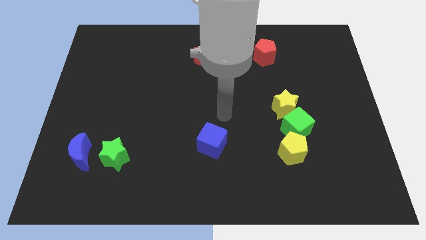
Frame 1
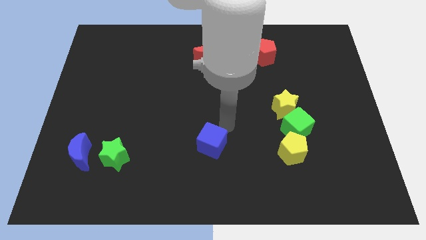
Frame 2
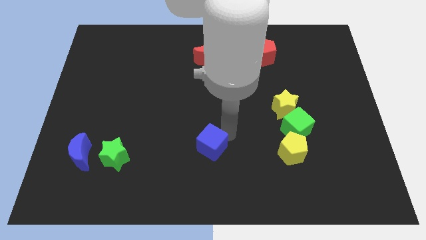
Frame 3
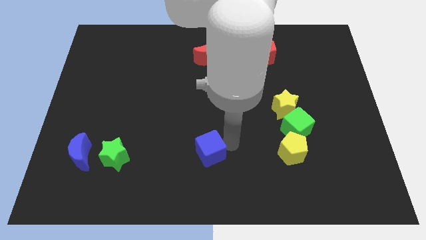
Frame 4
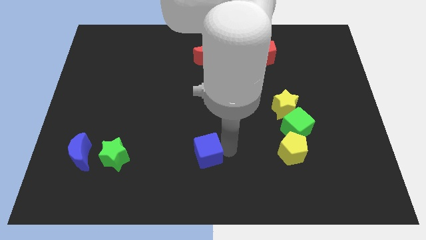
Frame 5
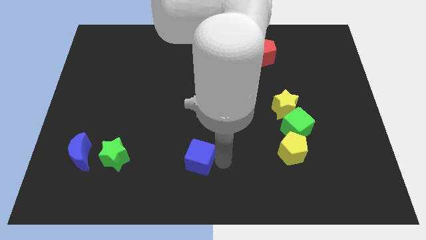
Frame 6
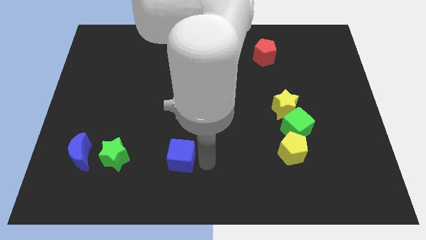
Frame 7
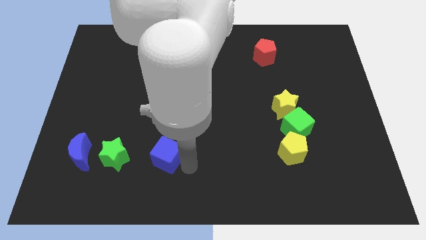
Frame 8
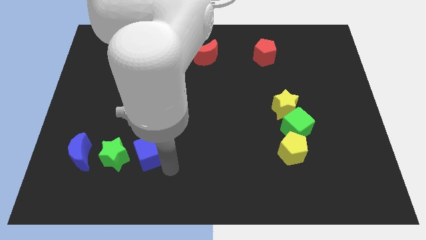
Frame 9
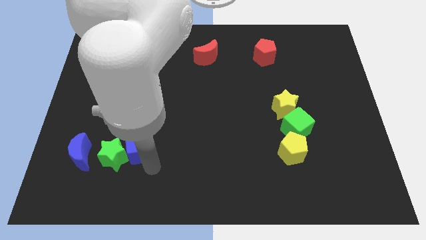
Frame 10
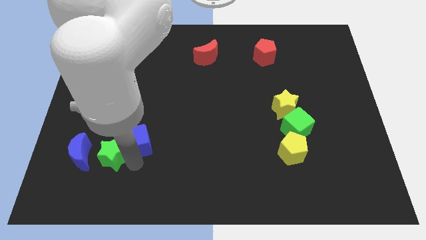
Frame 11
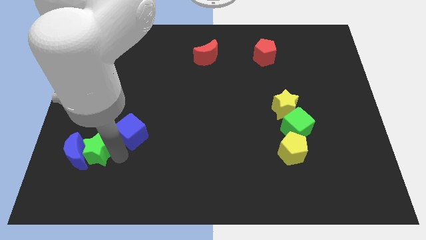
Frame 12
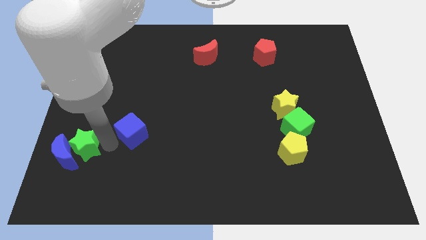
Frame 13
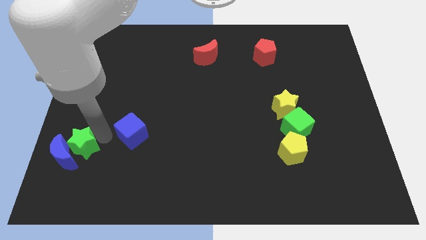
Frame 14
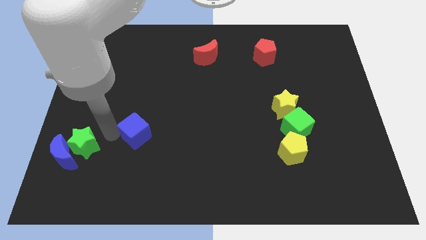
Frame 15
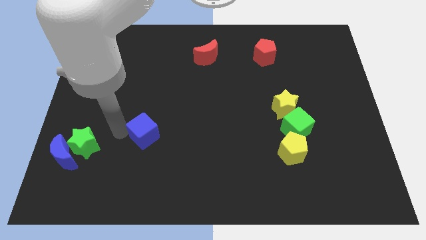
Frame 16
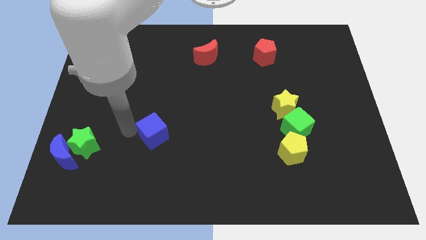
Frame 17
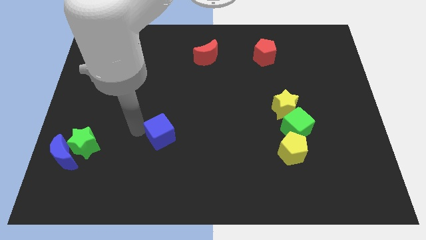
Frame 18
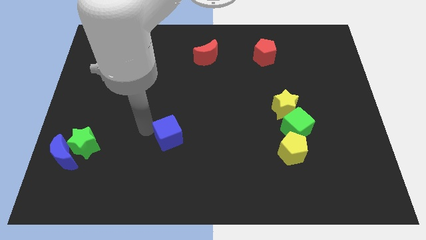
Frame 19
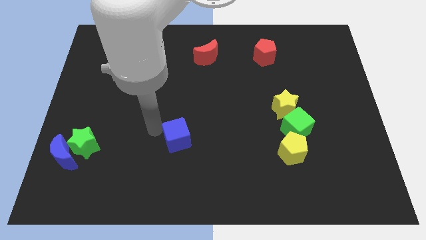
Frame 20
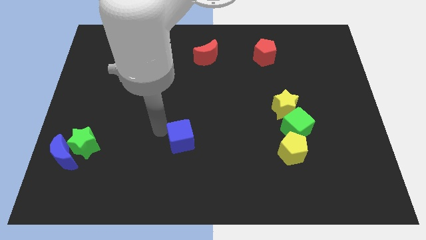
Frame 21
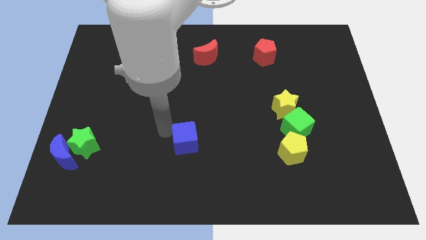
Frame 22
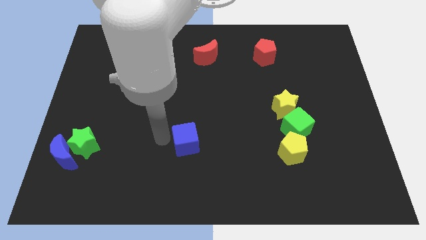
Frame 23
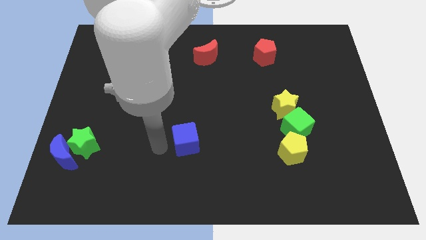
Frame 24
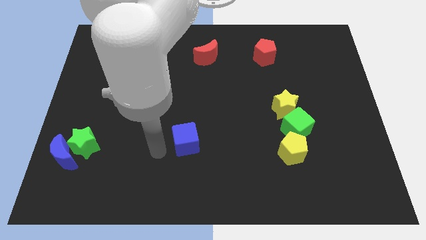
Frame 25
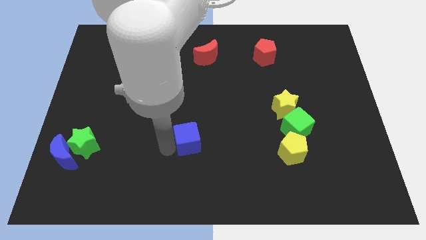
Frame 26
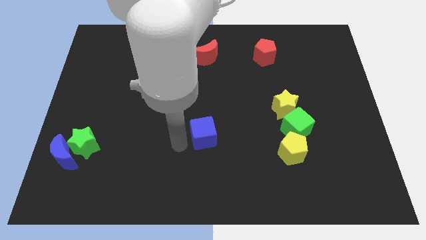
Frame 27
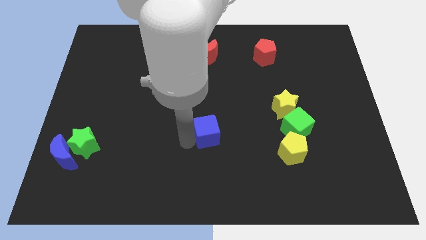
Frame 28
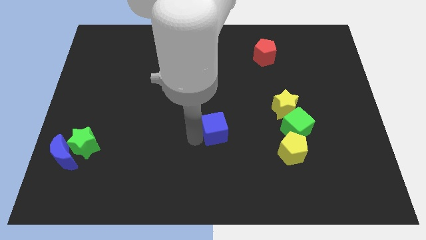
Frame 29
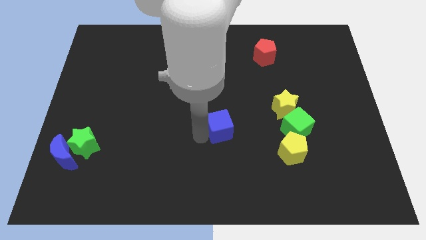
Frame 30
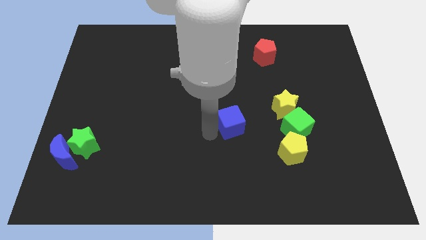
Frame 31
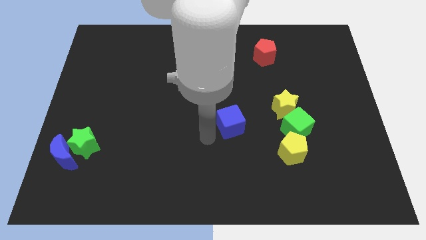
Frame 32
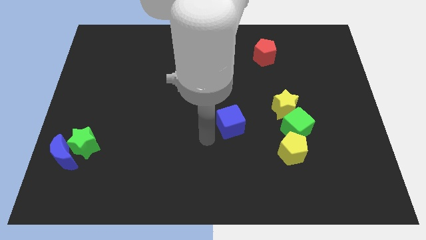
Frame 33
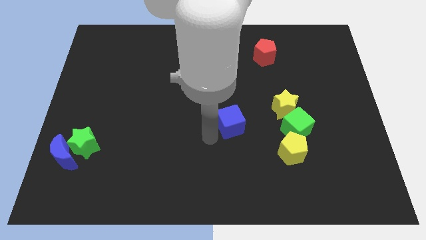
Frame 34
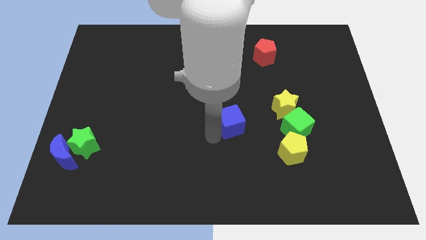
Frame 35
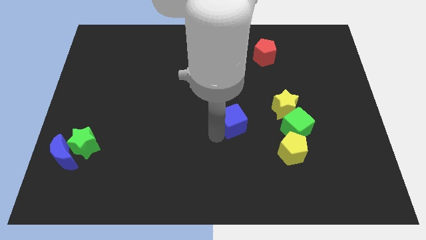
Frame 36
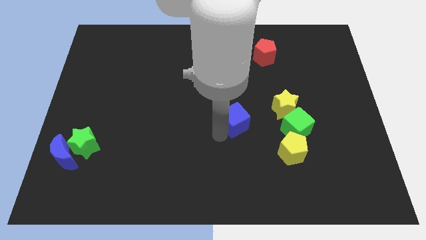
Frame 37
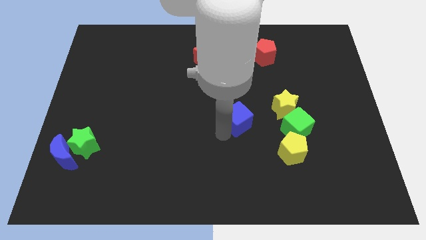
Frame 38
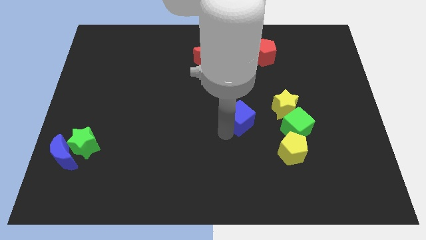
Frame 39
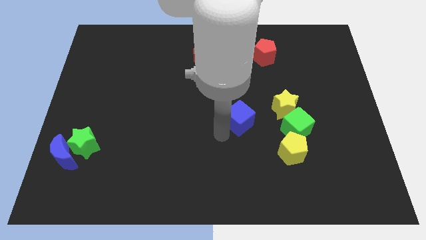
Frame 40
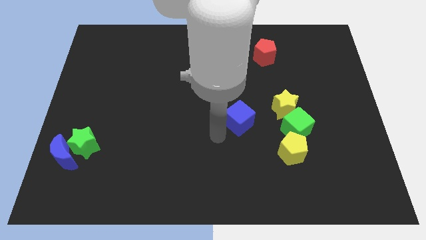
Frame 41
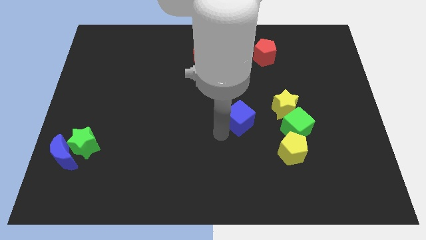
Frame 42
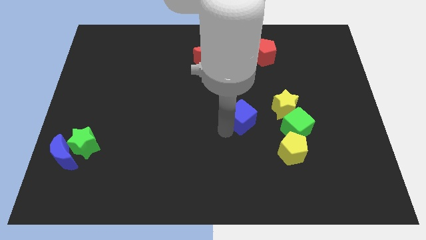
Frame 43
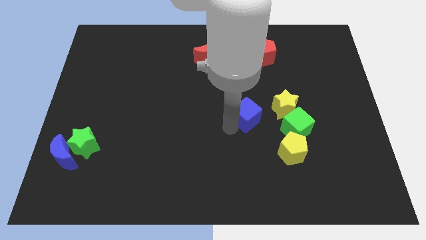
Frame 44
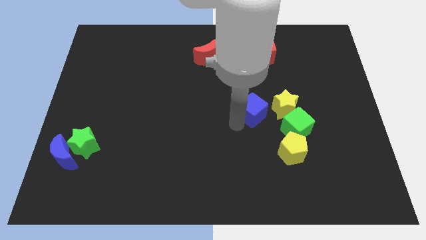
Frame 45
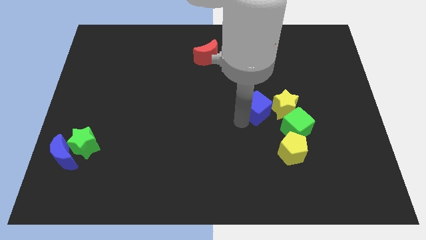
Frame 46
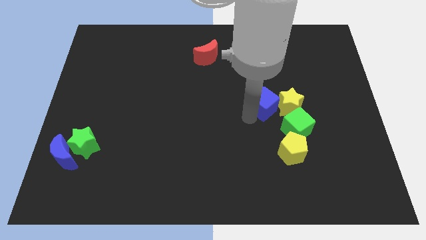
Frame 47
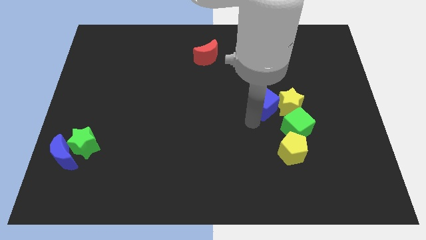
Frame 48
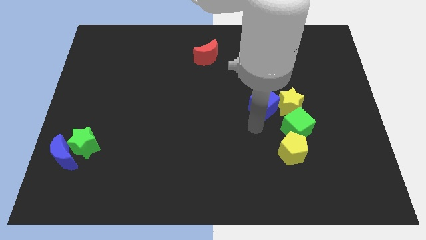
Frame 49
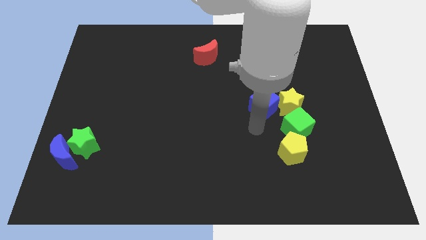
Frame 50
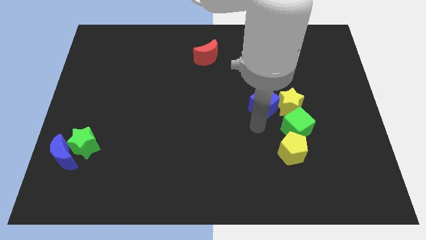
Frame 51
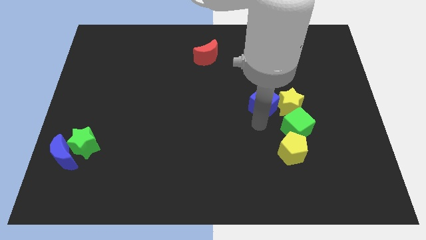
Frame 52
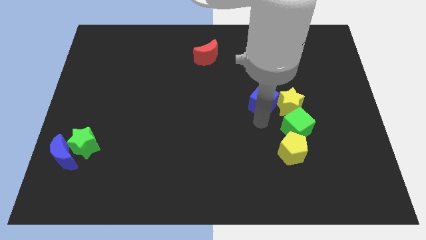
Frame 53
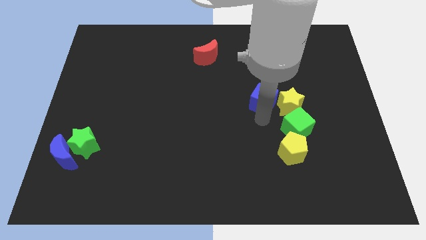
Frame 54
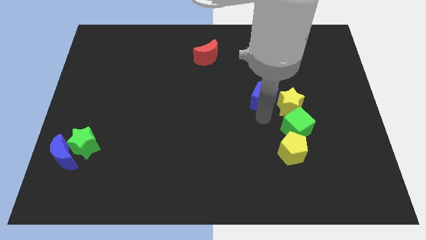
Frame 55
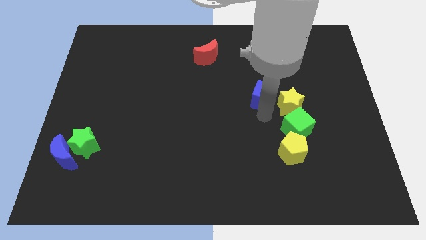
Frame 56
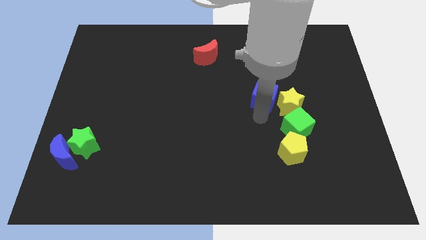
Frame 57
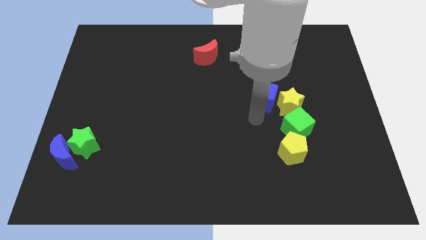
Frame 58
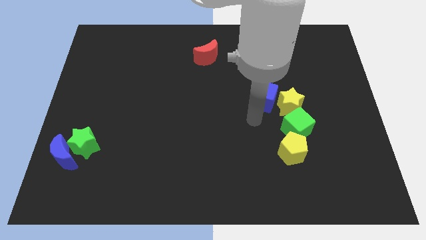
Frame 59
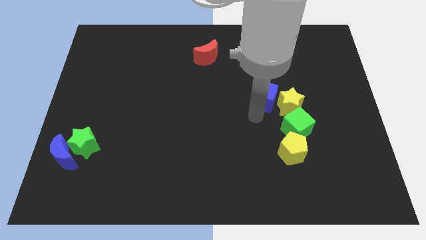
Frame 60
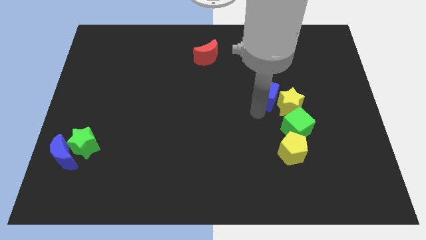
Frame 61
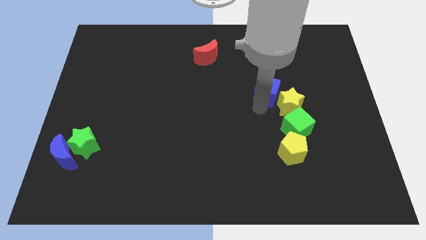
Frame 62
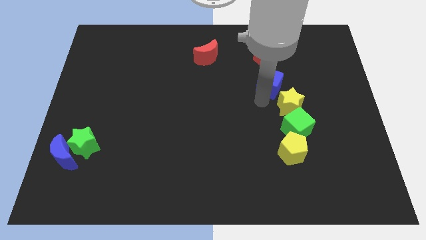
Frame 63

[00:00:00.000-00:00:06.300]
push the blue cube up and to the right

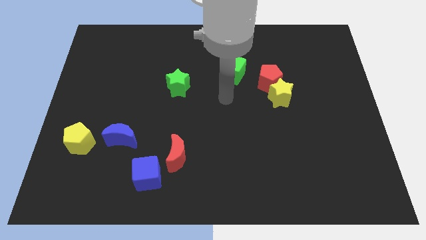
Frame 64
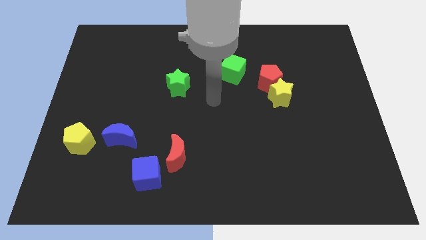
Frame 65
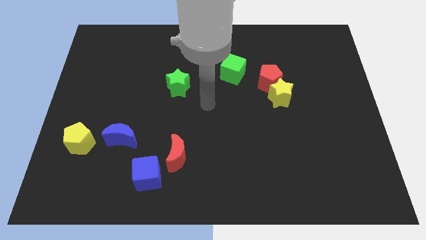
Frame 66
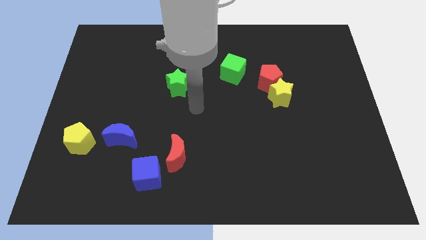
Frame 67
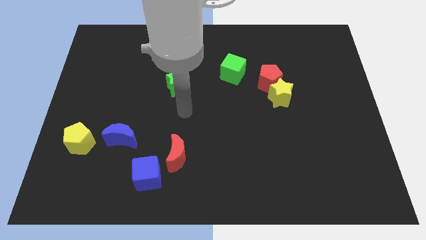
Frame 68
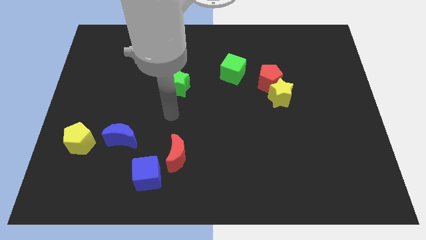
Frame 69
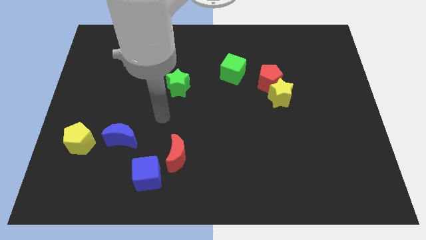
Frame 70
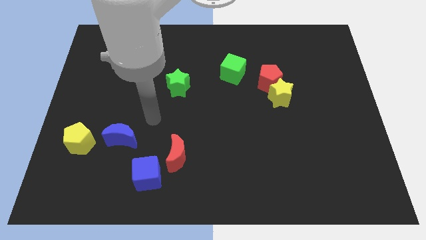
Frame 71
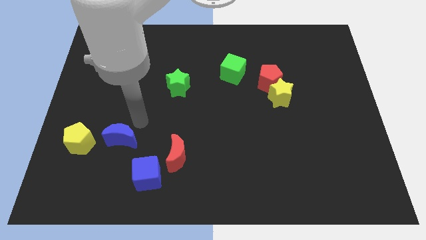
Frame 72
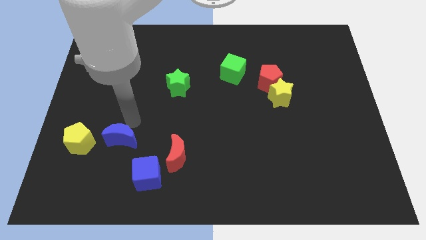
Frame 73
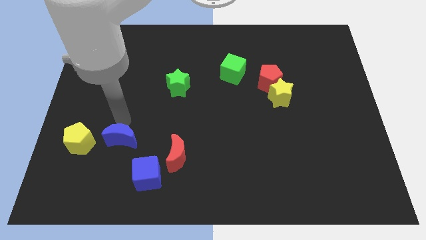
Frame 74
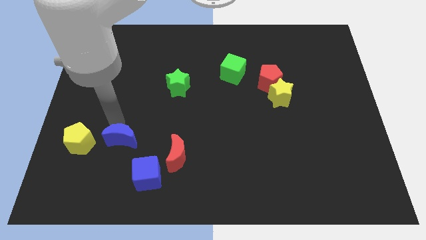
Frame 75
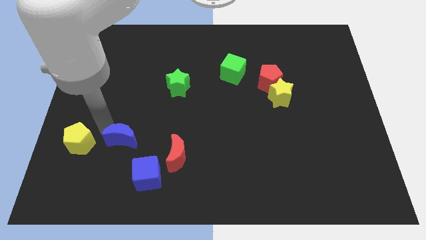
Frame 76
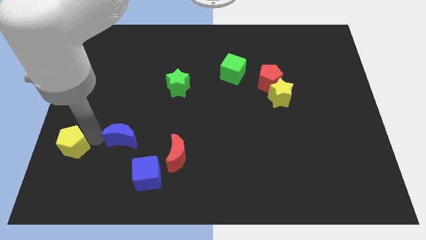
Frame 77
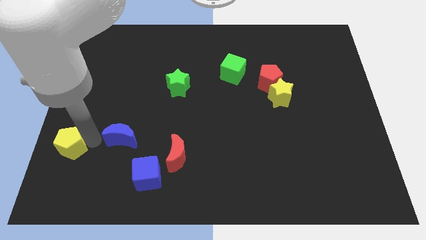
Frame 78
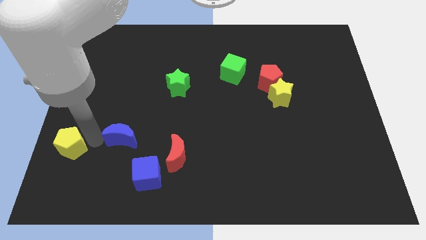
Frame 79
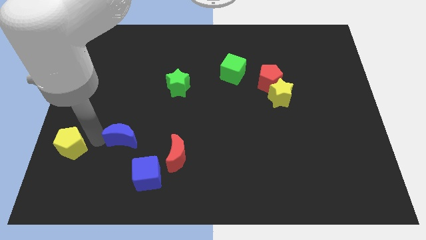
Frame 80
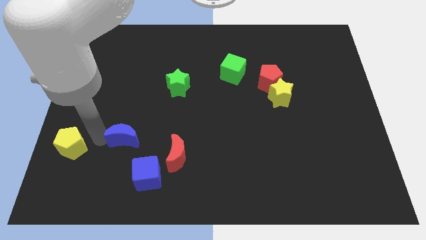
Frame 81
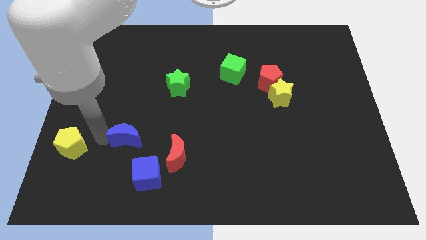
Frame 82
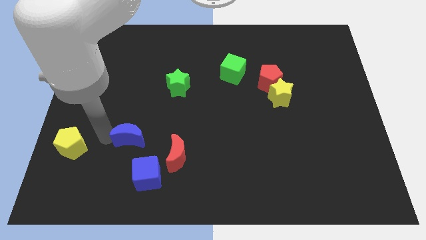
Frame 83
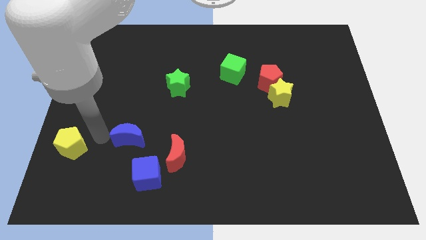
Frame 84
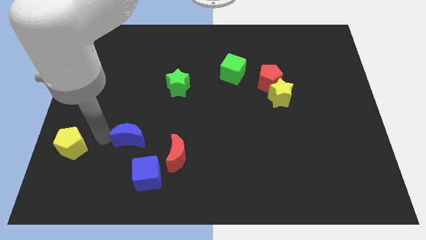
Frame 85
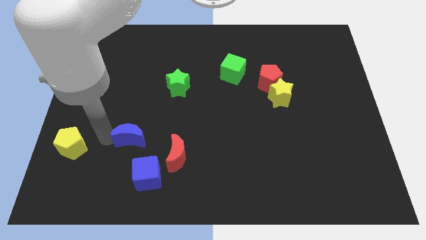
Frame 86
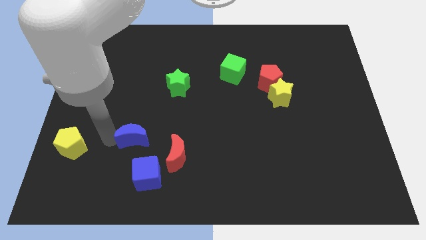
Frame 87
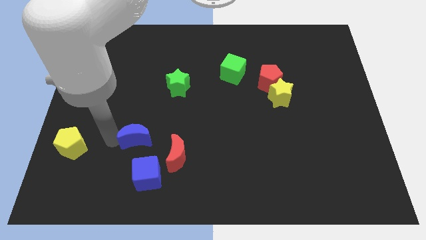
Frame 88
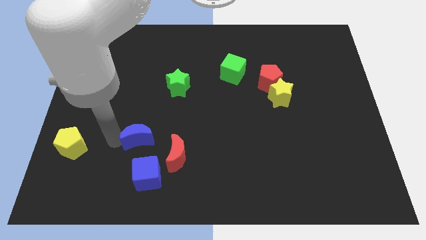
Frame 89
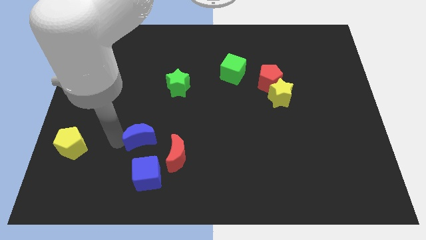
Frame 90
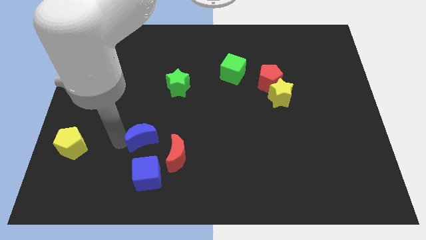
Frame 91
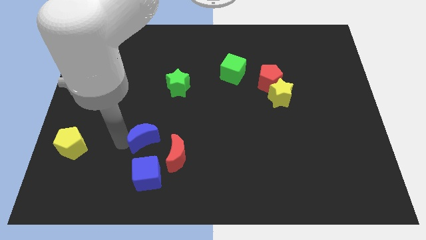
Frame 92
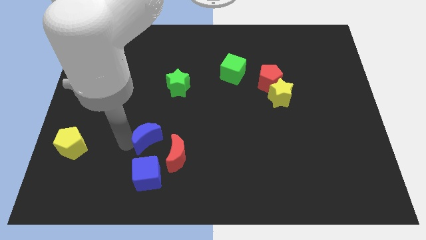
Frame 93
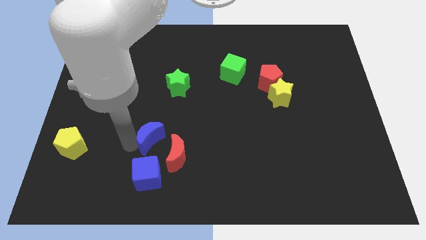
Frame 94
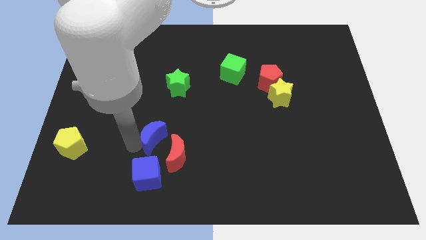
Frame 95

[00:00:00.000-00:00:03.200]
slightly push the blue moon right
